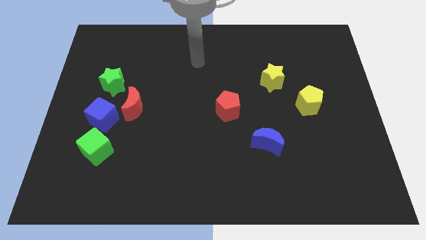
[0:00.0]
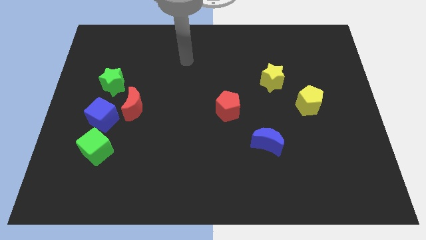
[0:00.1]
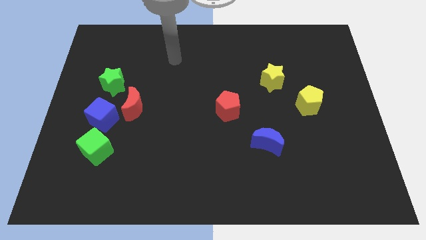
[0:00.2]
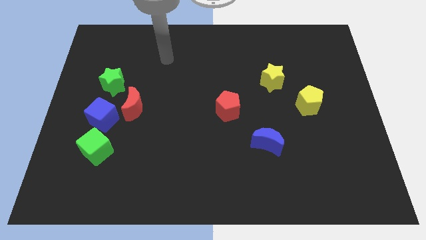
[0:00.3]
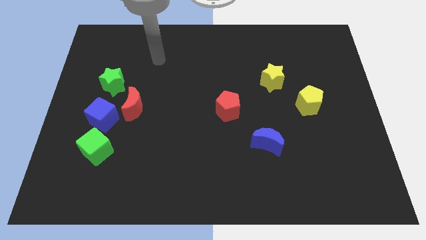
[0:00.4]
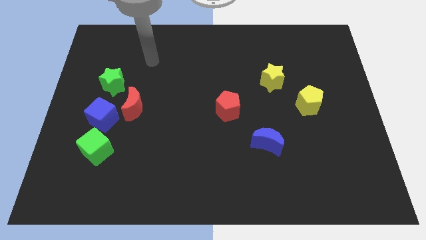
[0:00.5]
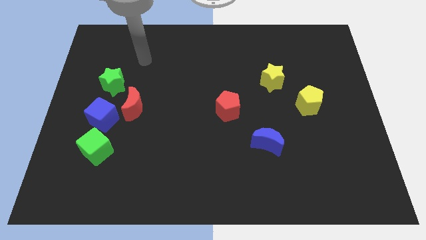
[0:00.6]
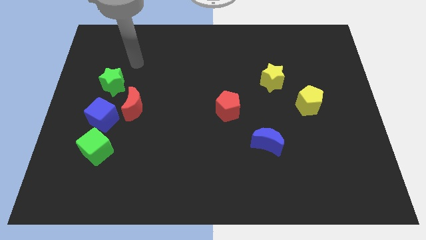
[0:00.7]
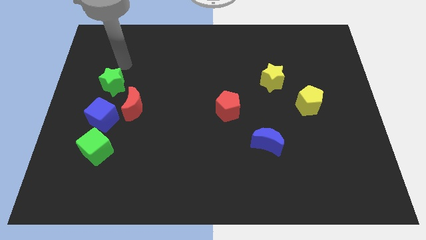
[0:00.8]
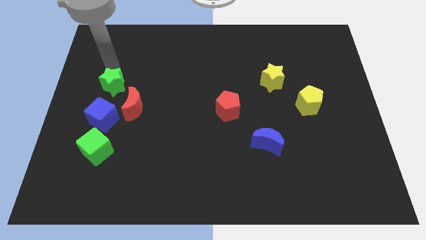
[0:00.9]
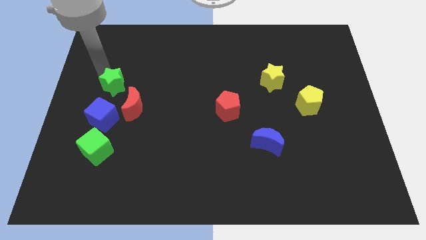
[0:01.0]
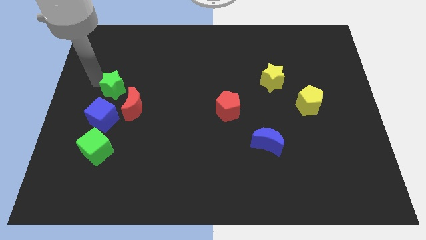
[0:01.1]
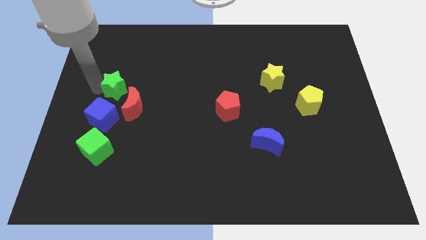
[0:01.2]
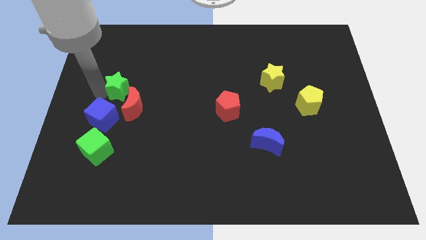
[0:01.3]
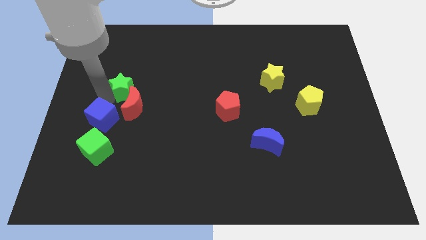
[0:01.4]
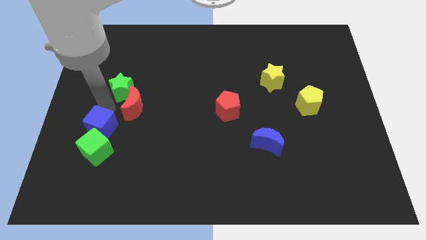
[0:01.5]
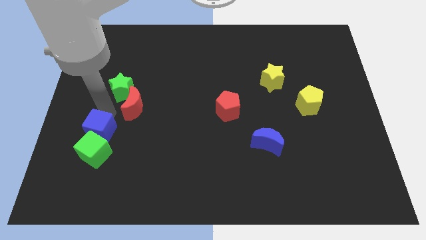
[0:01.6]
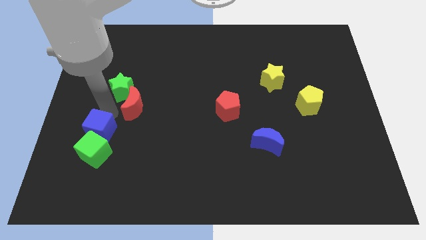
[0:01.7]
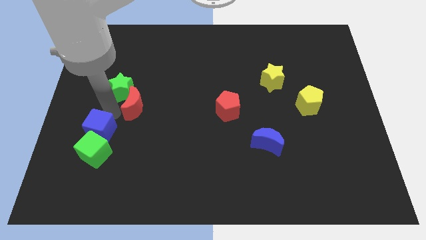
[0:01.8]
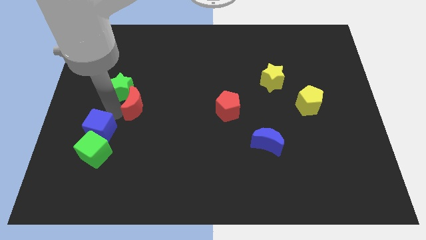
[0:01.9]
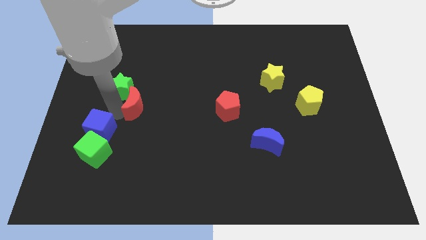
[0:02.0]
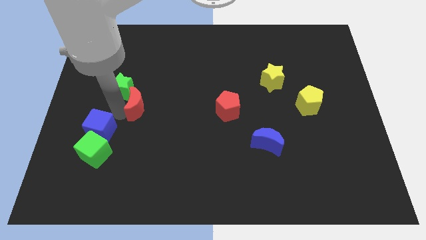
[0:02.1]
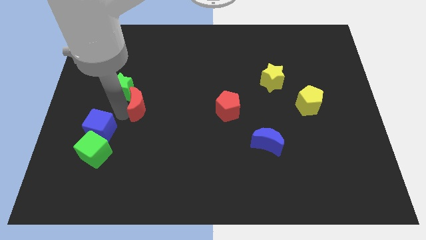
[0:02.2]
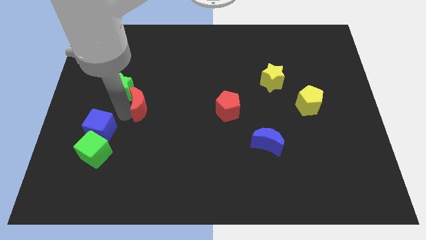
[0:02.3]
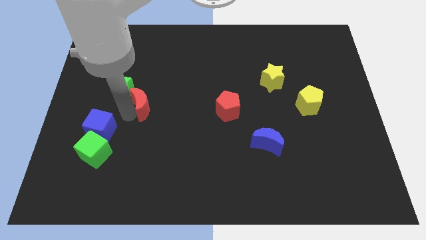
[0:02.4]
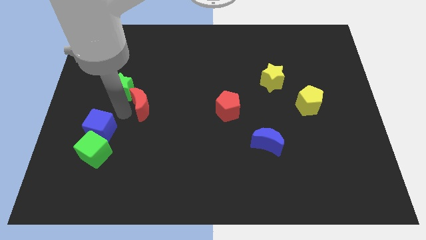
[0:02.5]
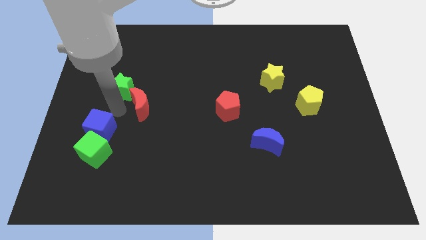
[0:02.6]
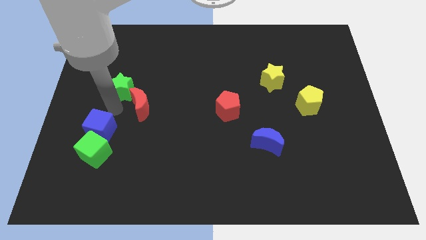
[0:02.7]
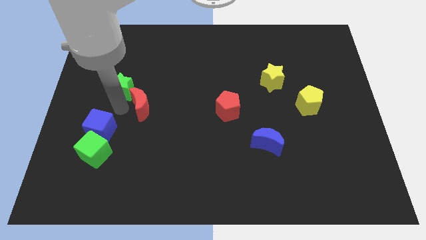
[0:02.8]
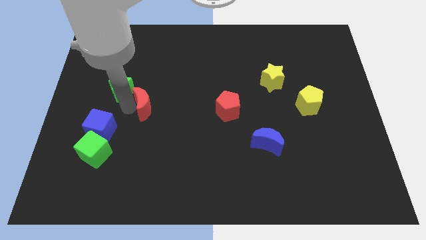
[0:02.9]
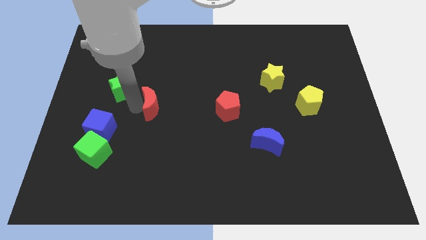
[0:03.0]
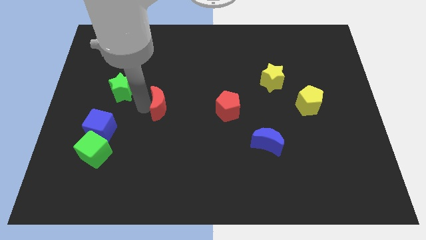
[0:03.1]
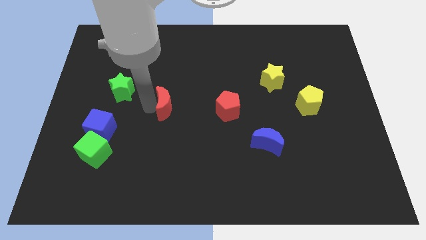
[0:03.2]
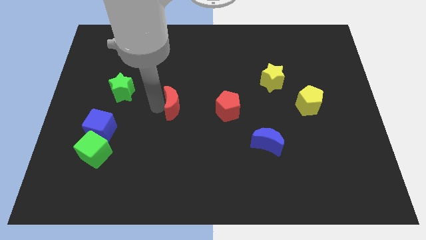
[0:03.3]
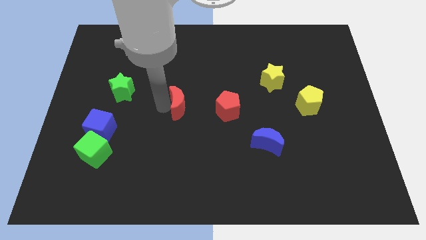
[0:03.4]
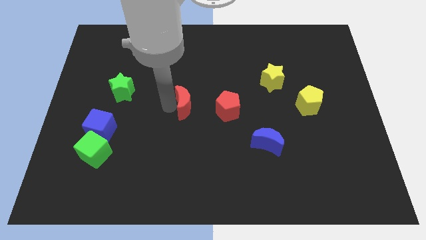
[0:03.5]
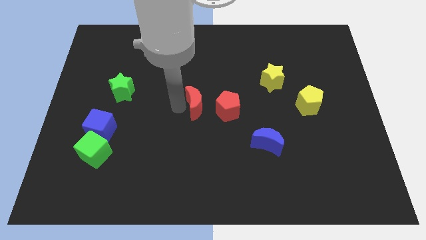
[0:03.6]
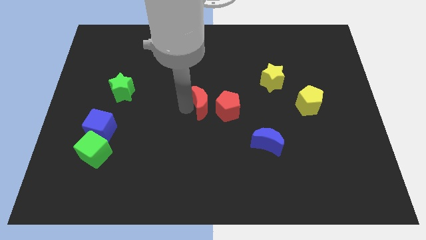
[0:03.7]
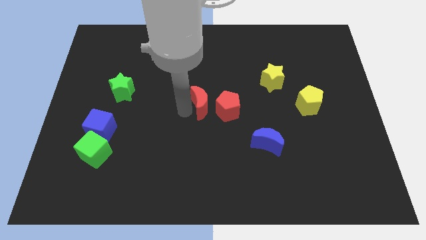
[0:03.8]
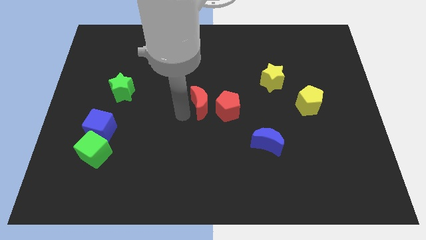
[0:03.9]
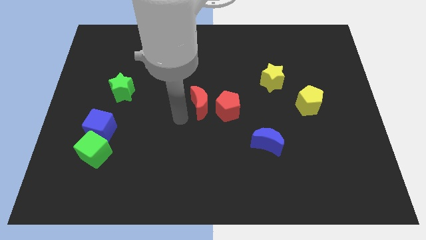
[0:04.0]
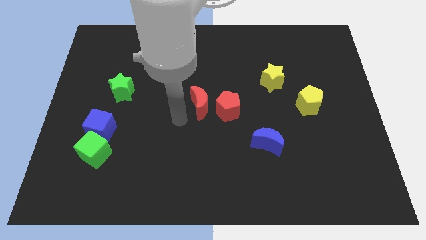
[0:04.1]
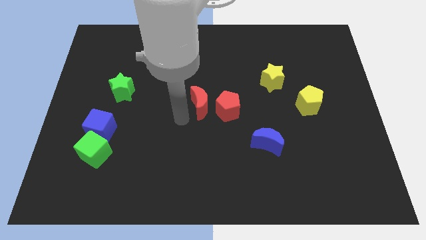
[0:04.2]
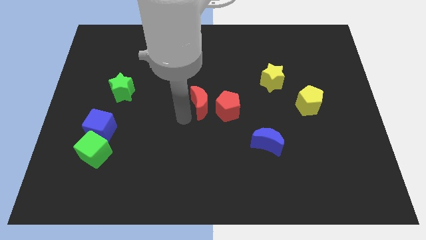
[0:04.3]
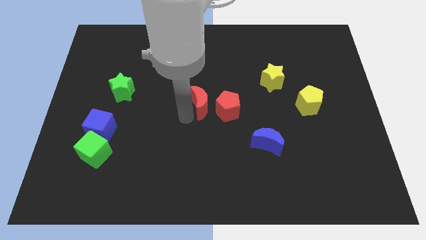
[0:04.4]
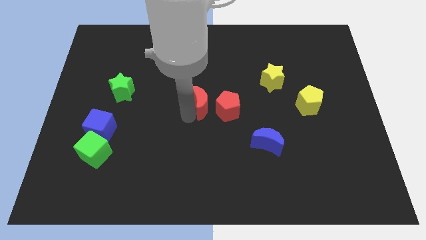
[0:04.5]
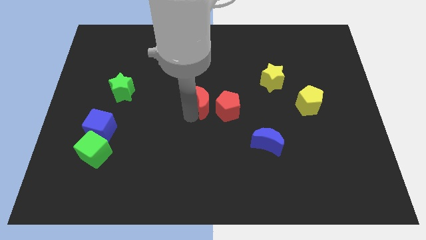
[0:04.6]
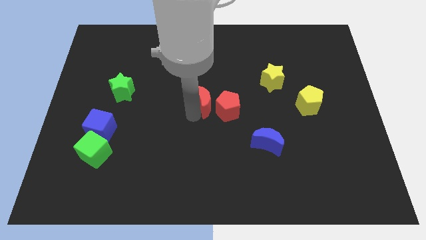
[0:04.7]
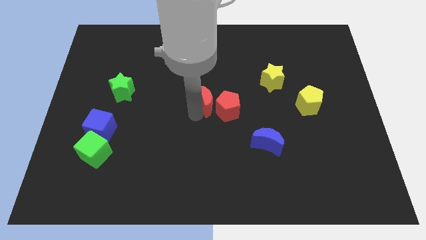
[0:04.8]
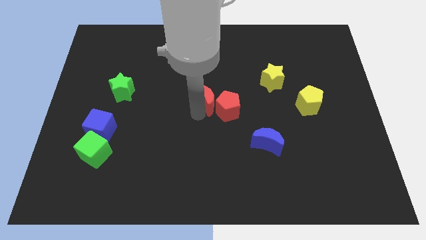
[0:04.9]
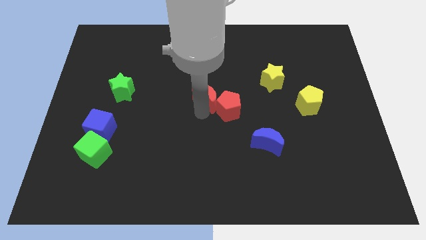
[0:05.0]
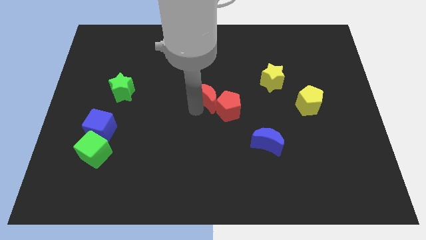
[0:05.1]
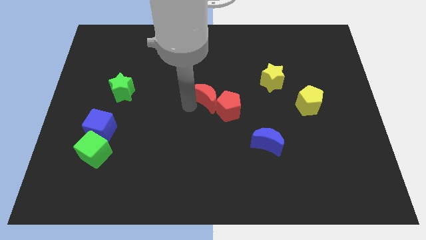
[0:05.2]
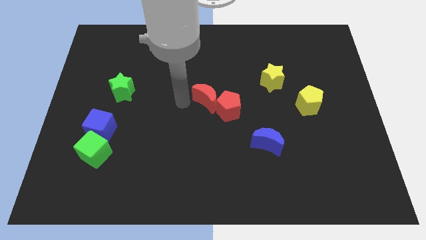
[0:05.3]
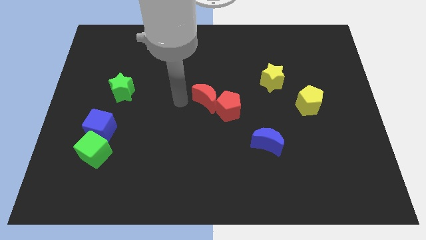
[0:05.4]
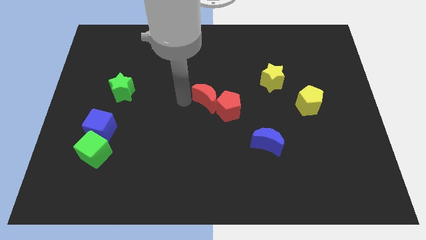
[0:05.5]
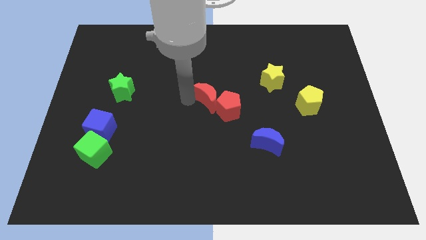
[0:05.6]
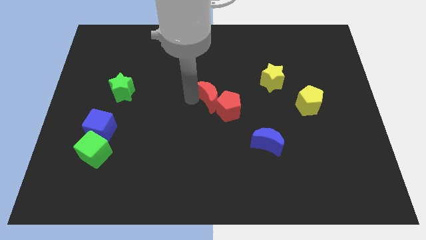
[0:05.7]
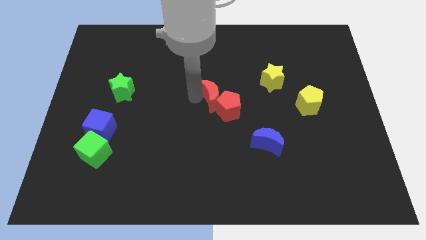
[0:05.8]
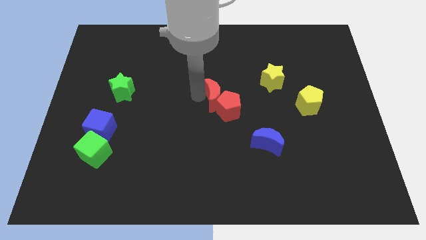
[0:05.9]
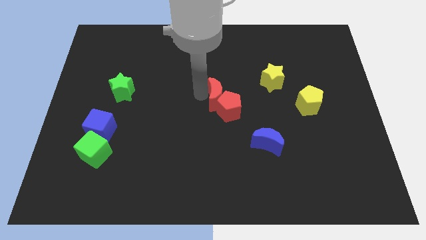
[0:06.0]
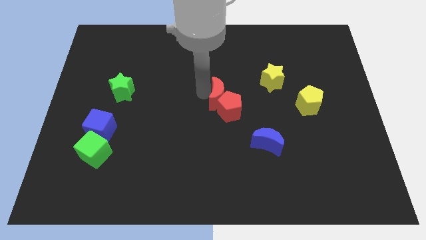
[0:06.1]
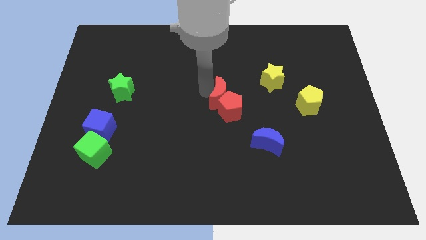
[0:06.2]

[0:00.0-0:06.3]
push the red moon right

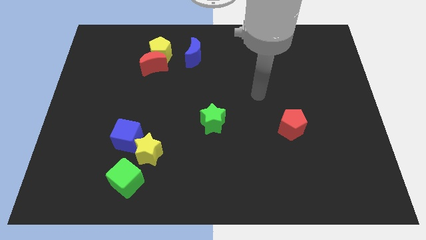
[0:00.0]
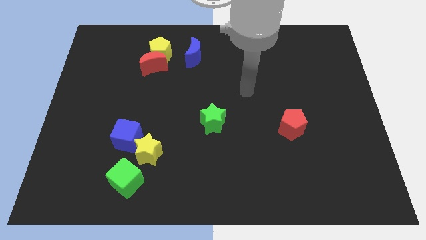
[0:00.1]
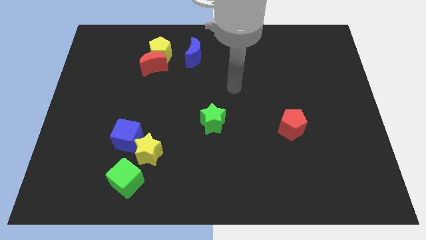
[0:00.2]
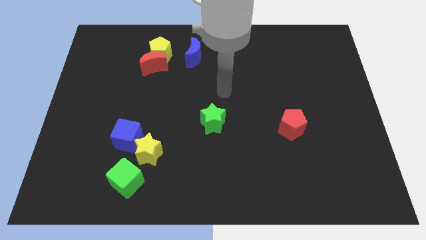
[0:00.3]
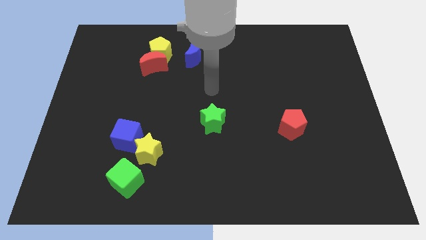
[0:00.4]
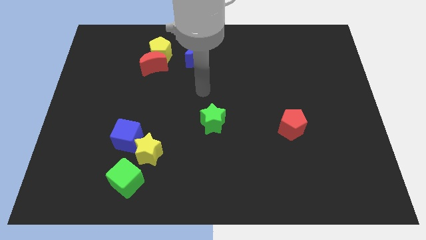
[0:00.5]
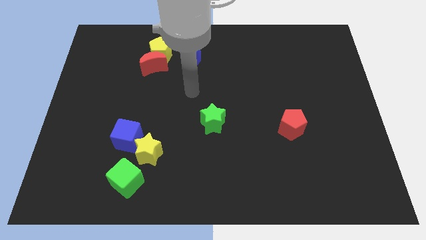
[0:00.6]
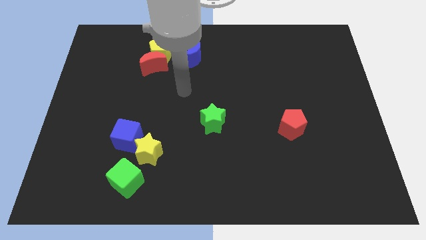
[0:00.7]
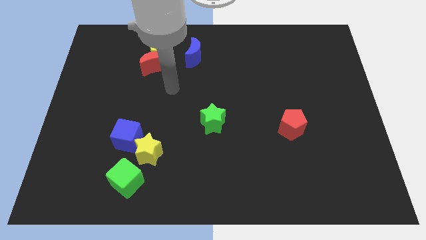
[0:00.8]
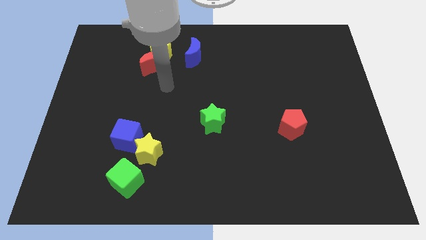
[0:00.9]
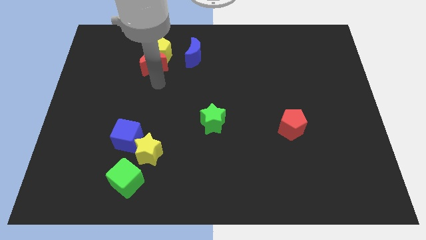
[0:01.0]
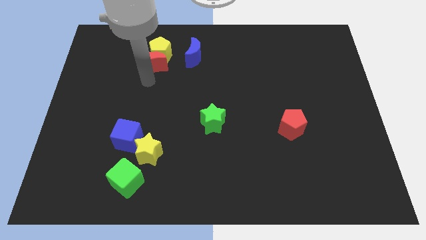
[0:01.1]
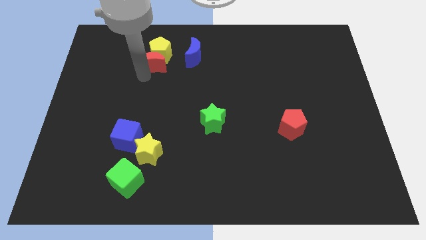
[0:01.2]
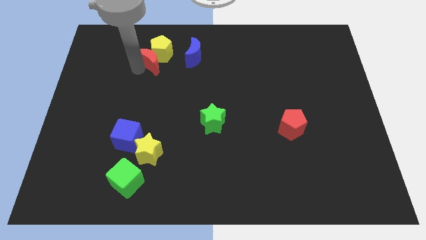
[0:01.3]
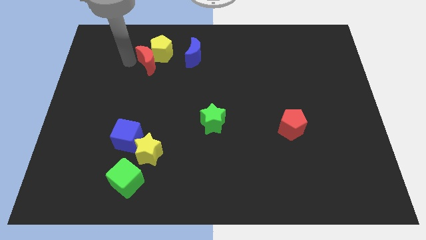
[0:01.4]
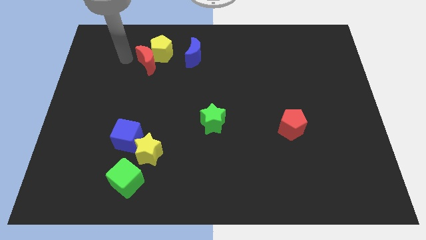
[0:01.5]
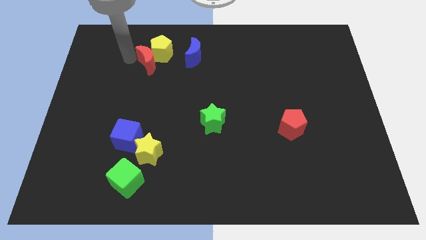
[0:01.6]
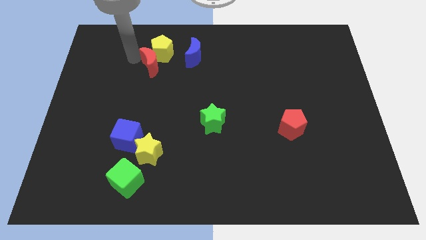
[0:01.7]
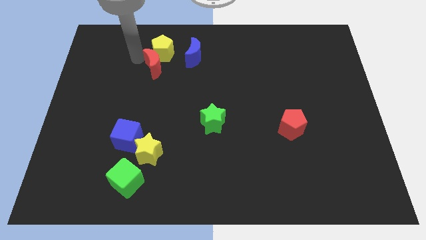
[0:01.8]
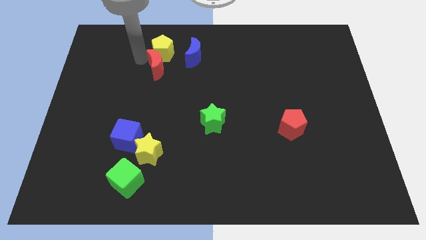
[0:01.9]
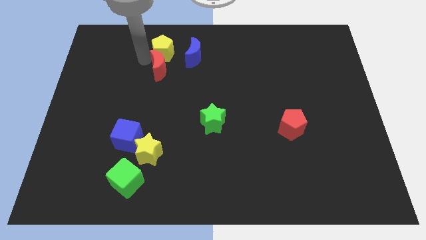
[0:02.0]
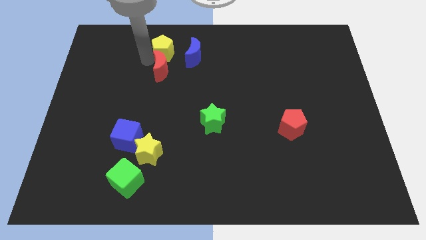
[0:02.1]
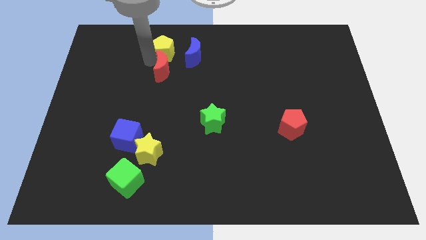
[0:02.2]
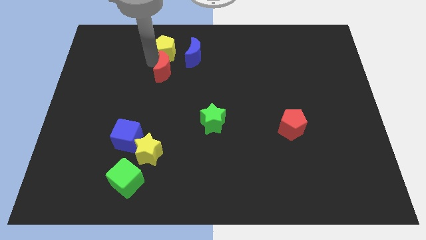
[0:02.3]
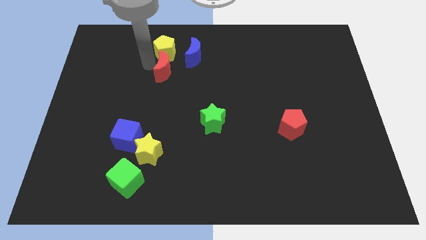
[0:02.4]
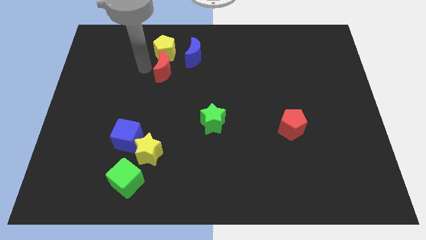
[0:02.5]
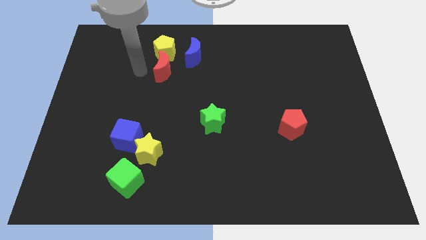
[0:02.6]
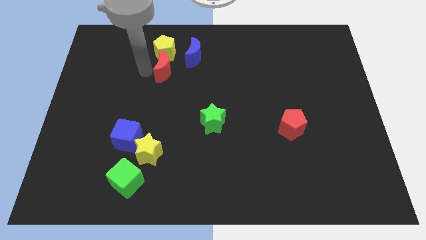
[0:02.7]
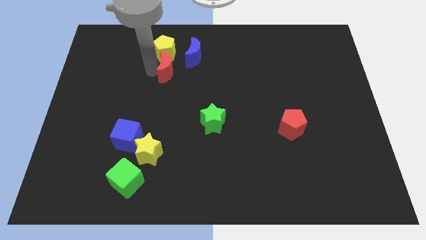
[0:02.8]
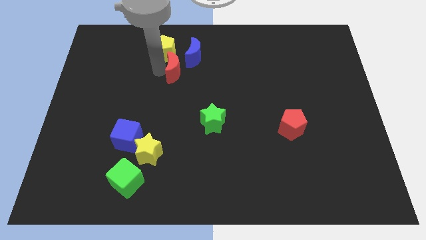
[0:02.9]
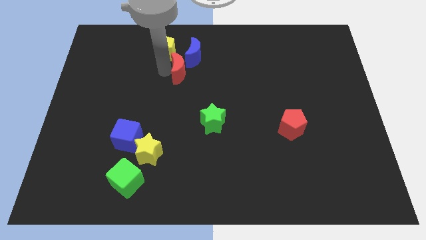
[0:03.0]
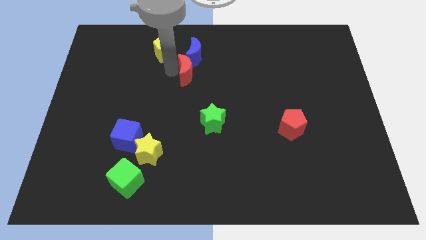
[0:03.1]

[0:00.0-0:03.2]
slightly push the red moon right
